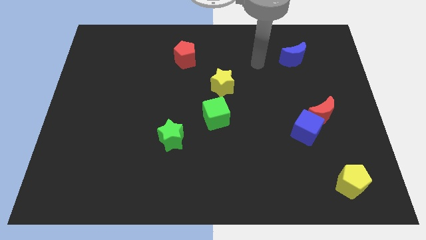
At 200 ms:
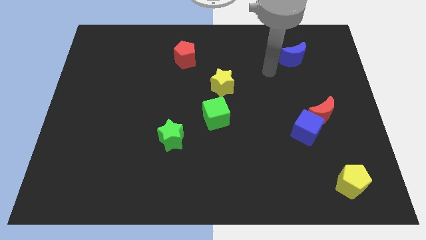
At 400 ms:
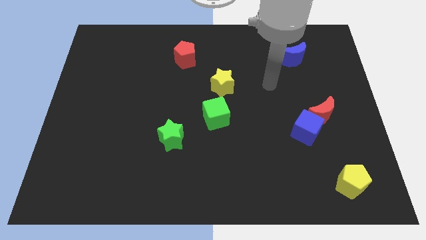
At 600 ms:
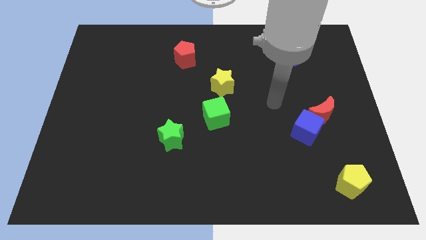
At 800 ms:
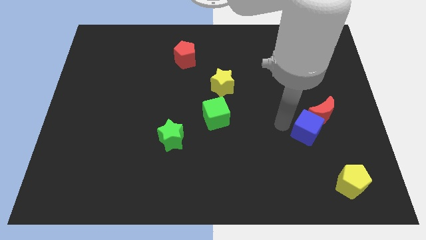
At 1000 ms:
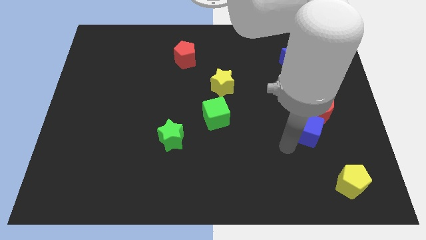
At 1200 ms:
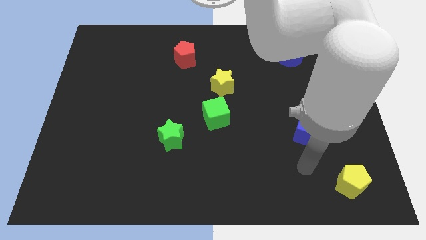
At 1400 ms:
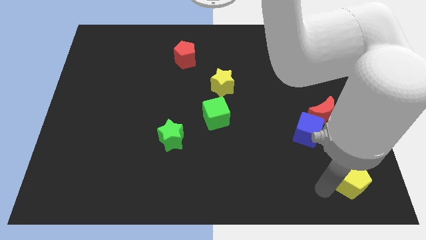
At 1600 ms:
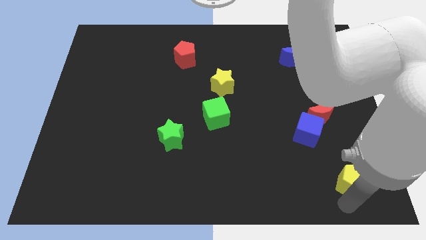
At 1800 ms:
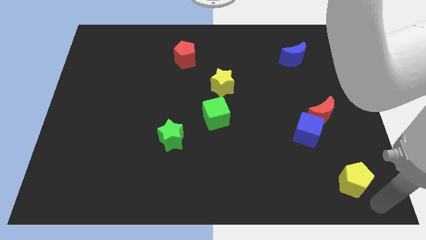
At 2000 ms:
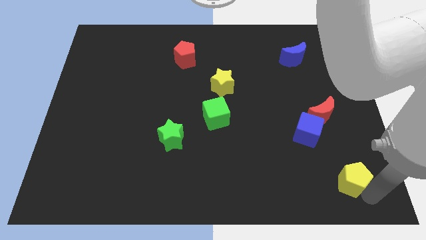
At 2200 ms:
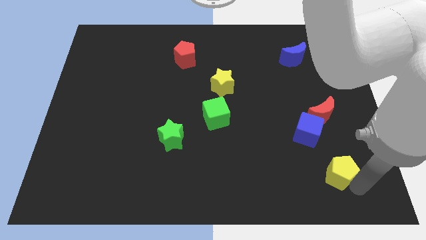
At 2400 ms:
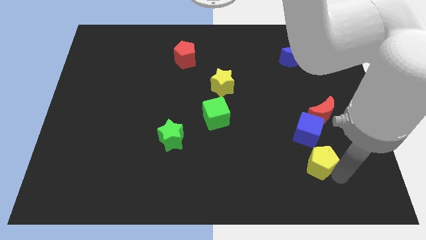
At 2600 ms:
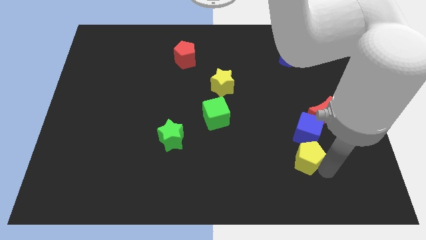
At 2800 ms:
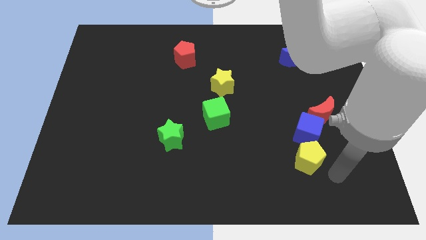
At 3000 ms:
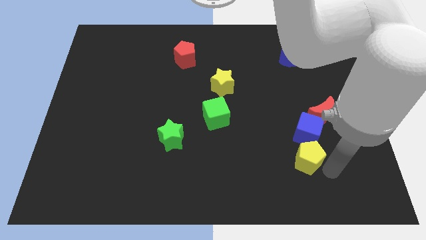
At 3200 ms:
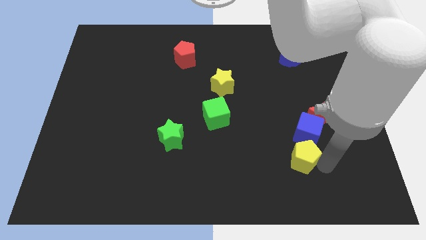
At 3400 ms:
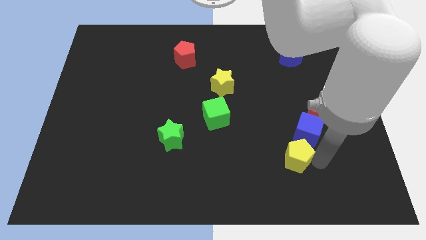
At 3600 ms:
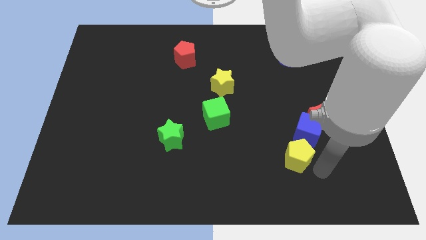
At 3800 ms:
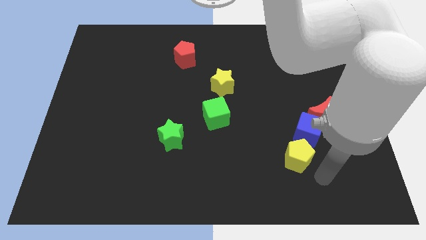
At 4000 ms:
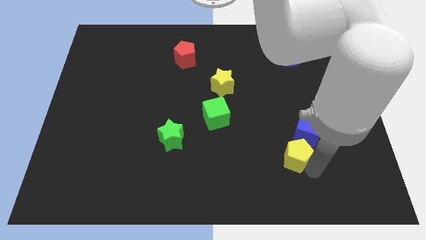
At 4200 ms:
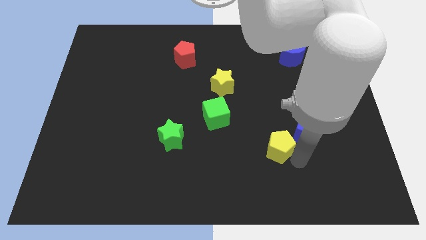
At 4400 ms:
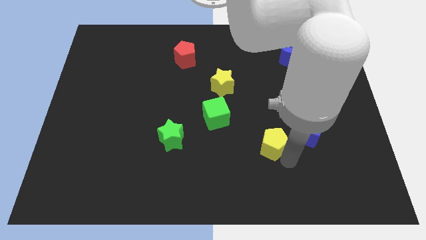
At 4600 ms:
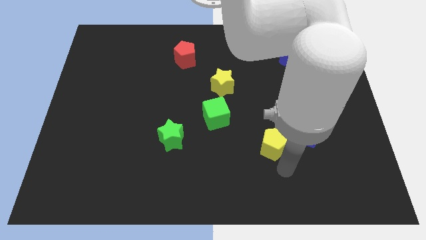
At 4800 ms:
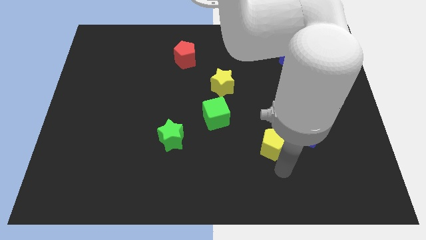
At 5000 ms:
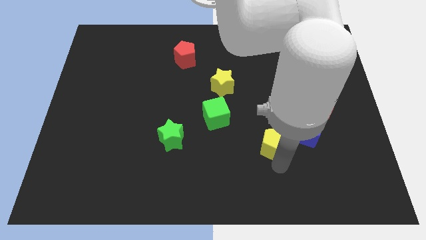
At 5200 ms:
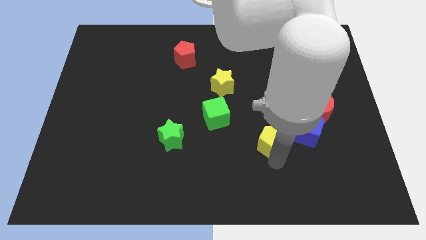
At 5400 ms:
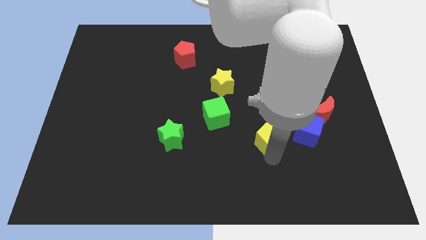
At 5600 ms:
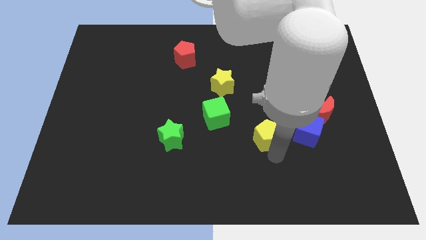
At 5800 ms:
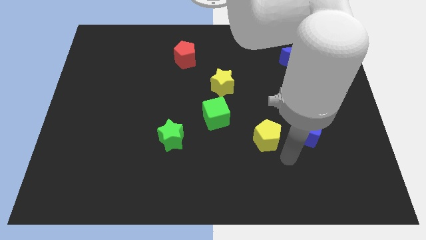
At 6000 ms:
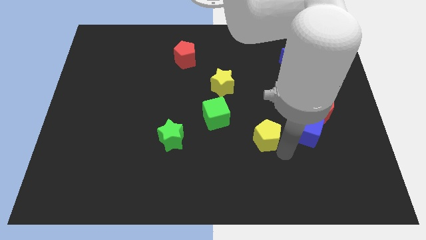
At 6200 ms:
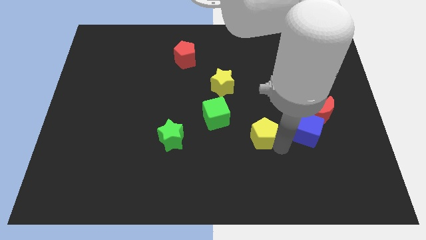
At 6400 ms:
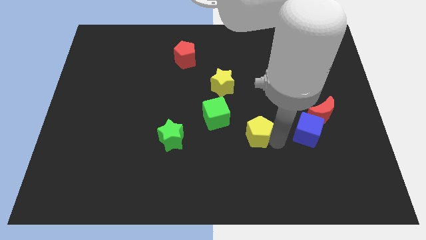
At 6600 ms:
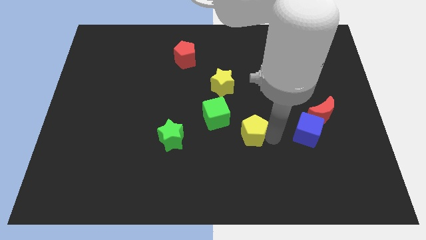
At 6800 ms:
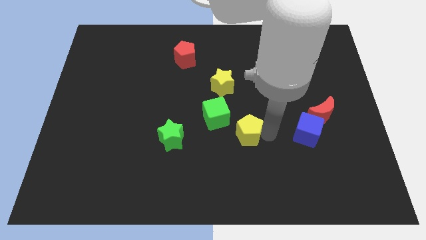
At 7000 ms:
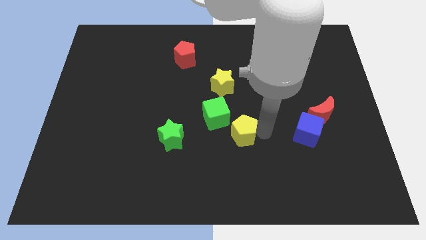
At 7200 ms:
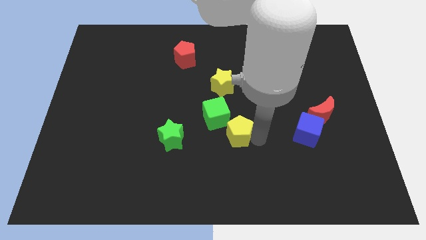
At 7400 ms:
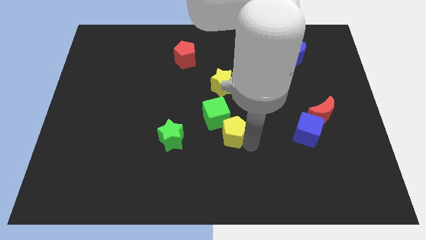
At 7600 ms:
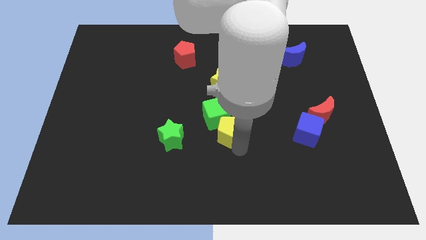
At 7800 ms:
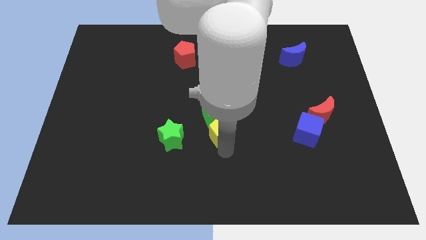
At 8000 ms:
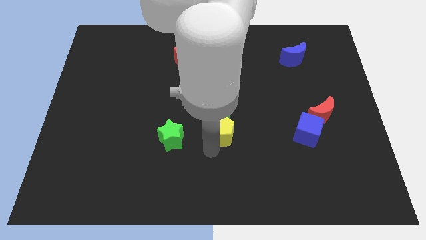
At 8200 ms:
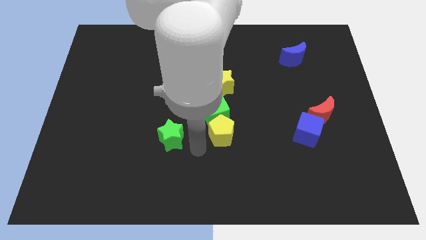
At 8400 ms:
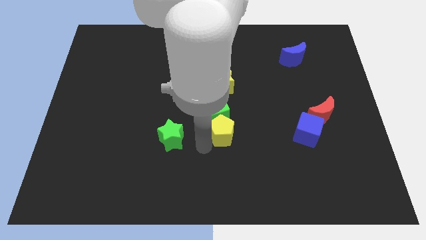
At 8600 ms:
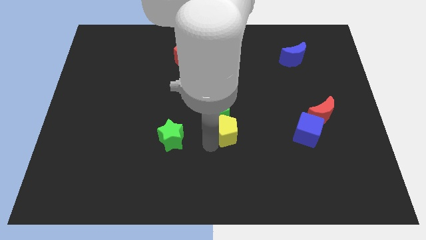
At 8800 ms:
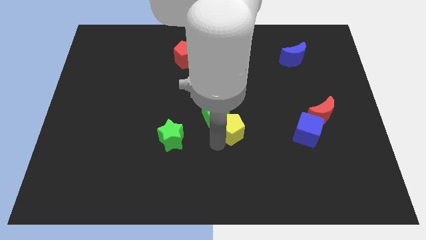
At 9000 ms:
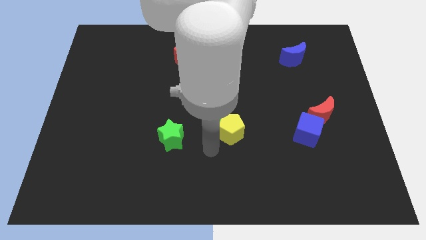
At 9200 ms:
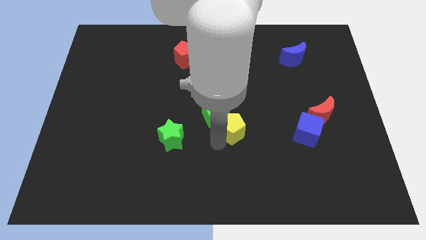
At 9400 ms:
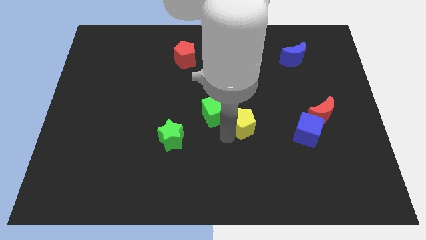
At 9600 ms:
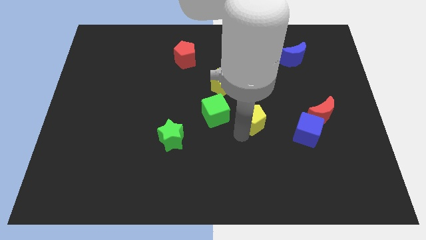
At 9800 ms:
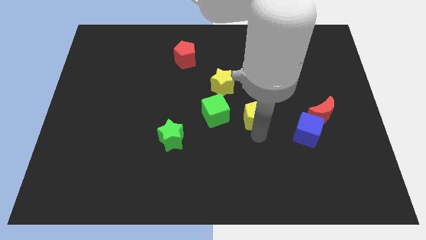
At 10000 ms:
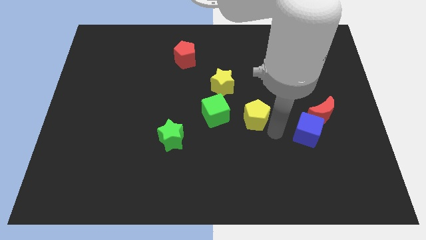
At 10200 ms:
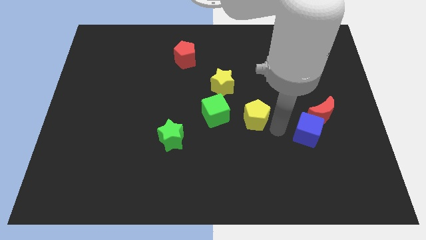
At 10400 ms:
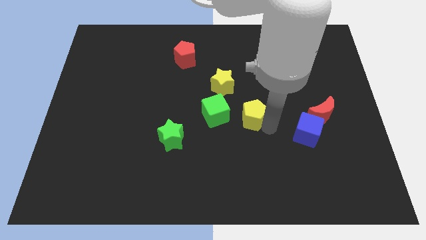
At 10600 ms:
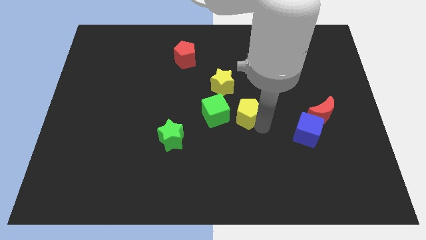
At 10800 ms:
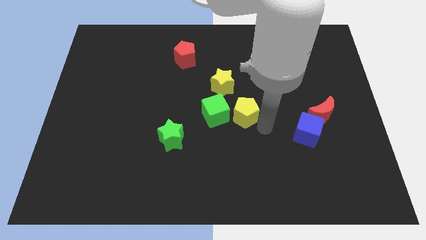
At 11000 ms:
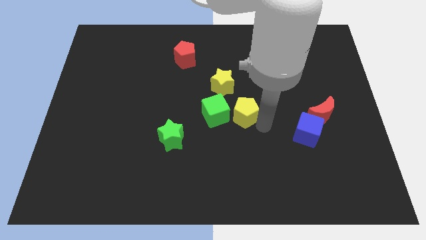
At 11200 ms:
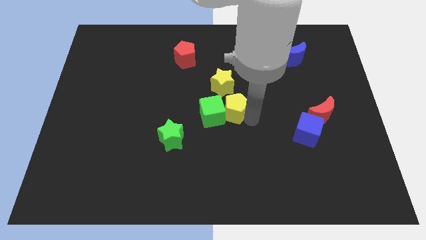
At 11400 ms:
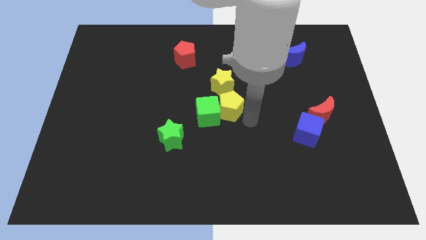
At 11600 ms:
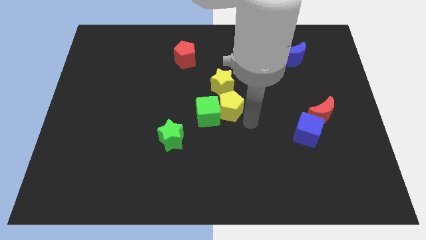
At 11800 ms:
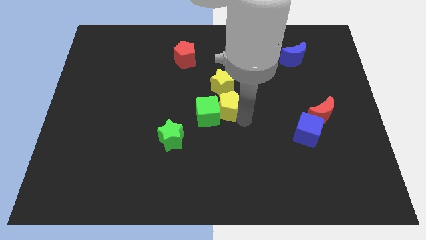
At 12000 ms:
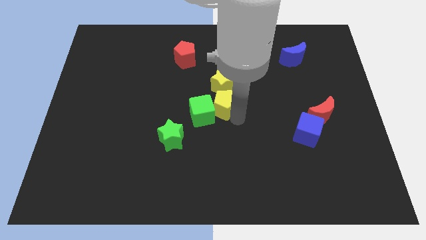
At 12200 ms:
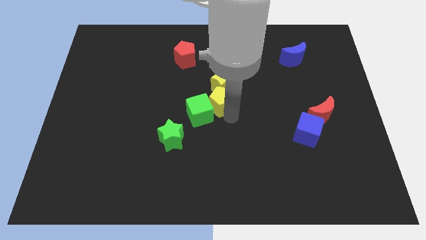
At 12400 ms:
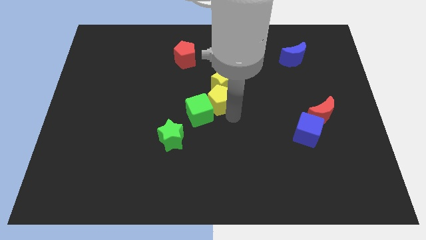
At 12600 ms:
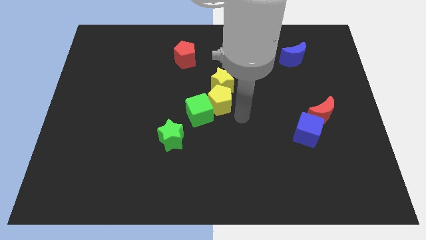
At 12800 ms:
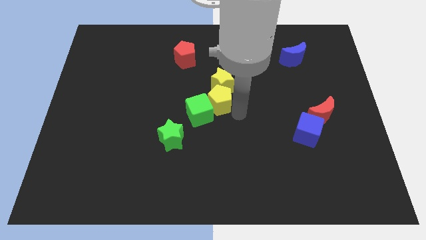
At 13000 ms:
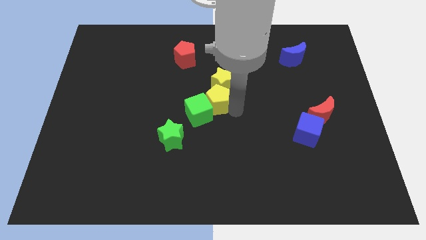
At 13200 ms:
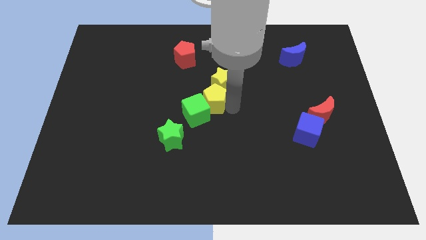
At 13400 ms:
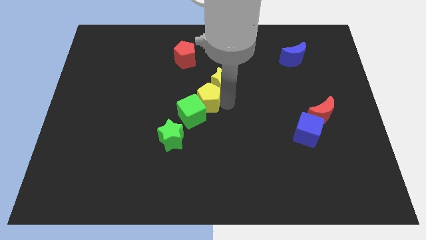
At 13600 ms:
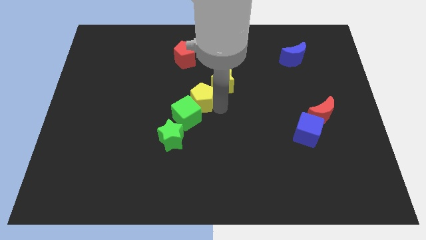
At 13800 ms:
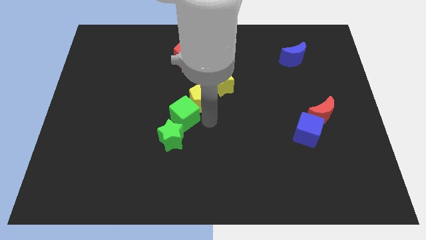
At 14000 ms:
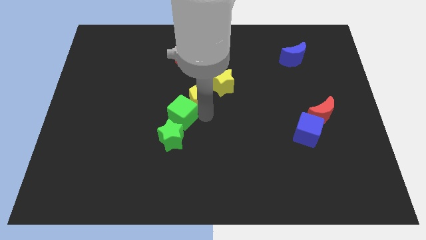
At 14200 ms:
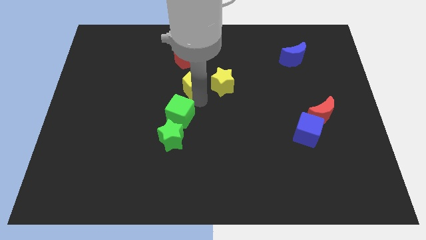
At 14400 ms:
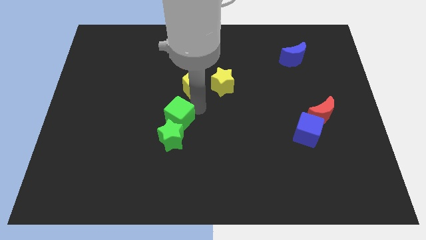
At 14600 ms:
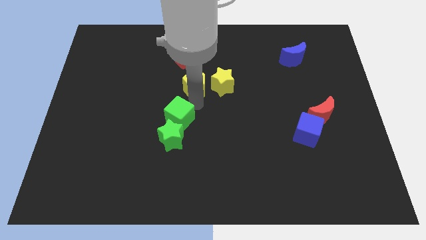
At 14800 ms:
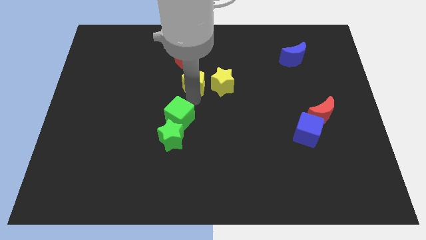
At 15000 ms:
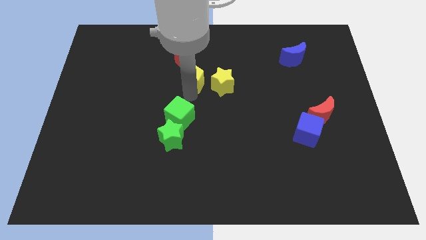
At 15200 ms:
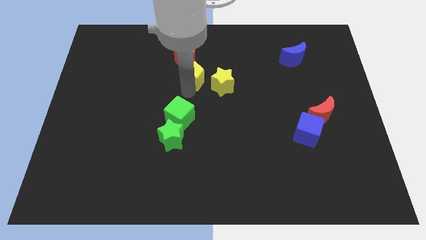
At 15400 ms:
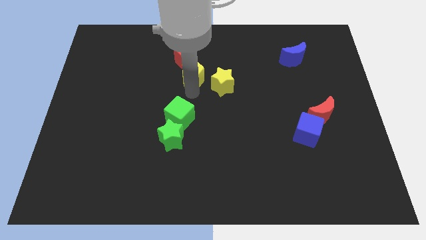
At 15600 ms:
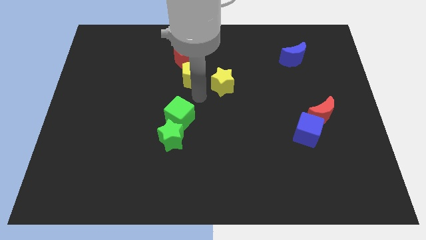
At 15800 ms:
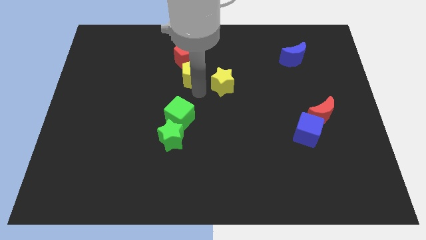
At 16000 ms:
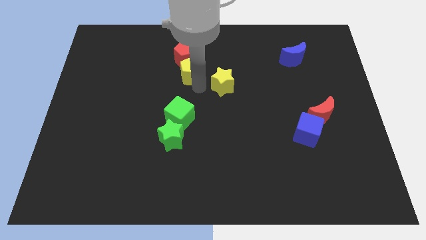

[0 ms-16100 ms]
slide the yellow pentagon towards the red pentagon
